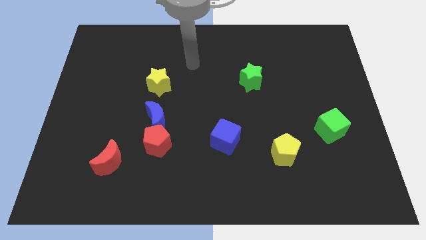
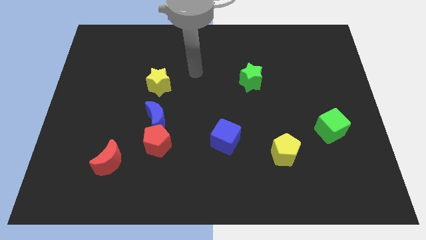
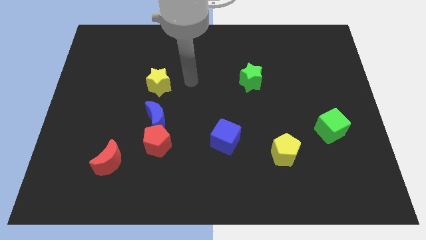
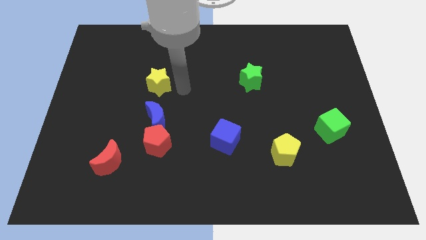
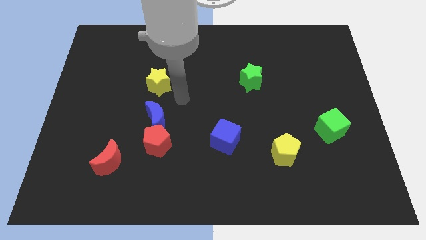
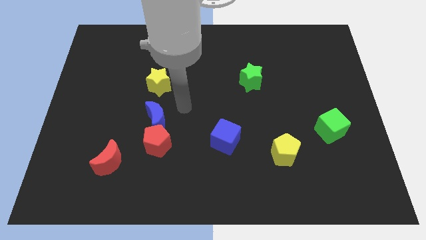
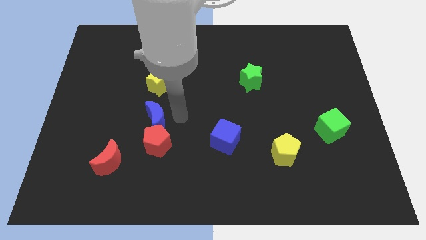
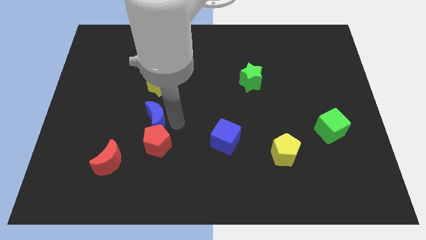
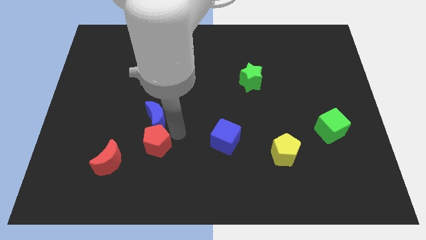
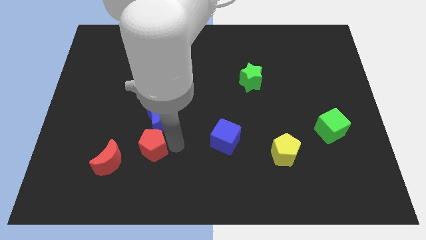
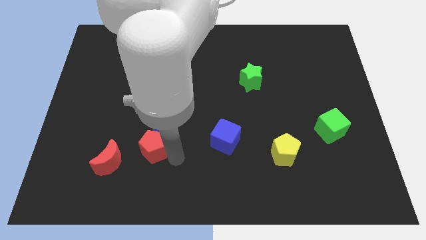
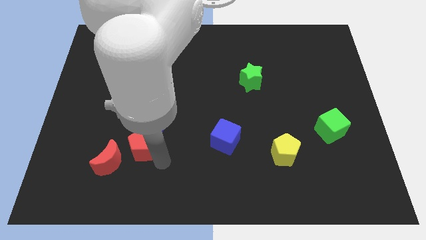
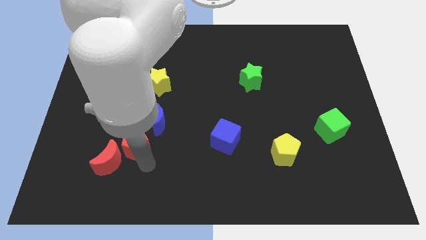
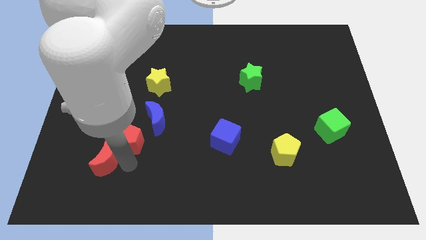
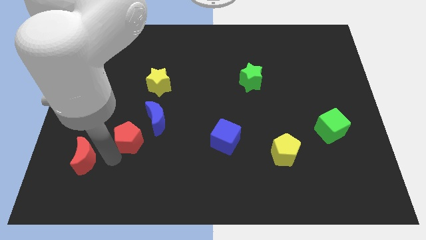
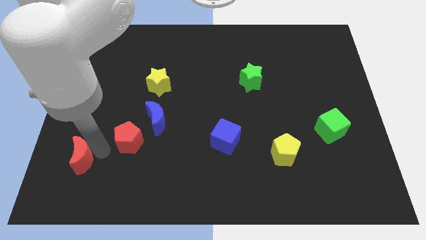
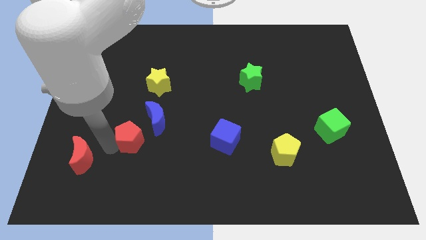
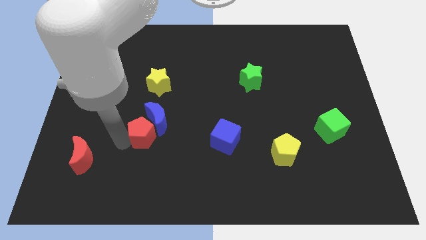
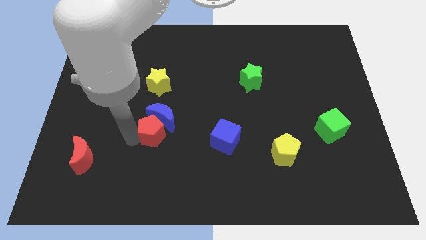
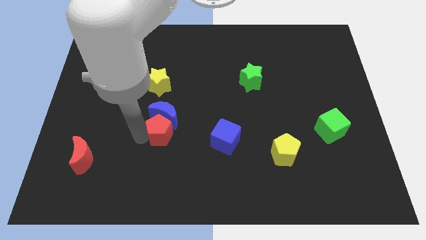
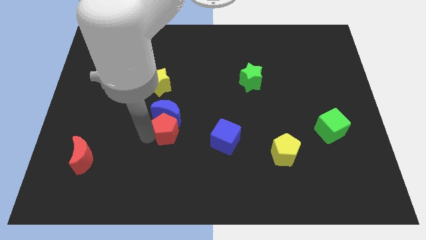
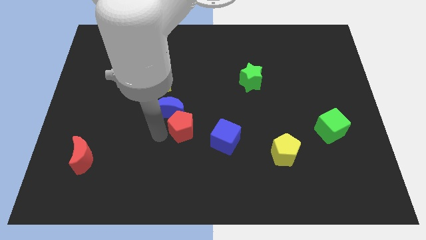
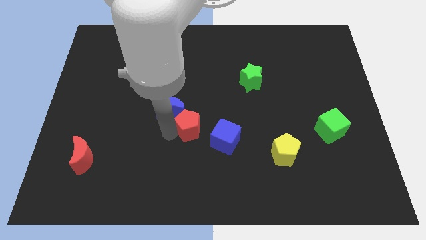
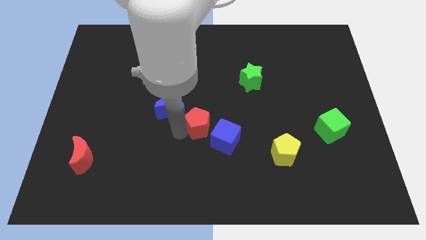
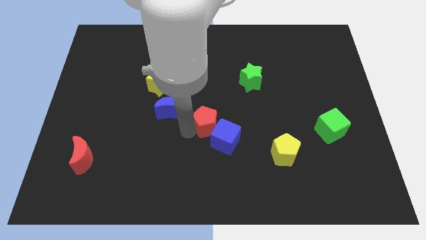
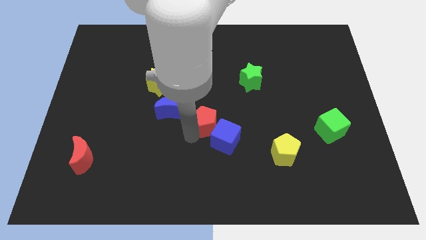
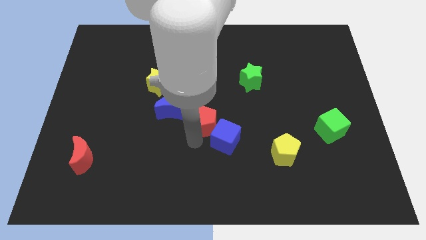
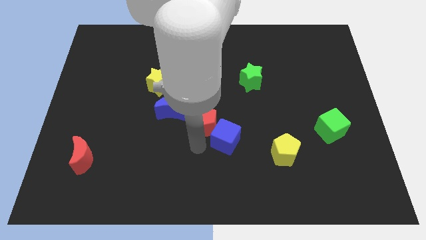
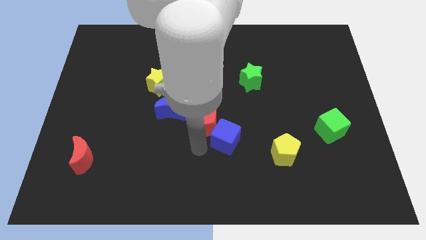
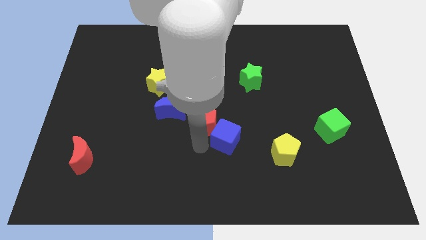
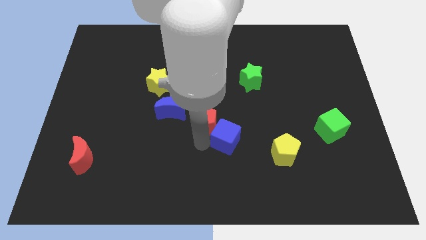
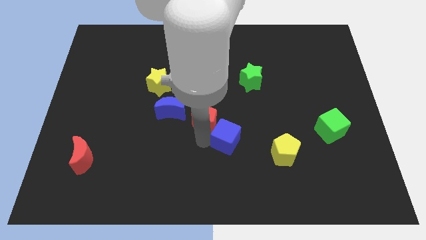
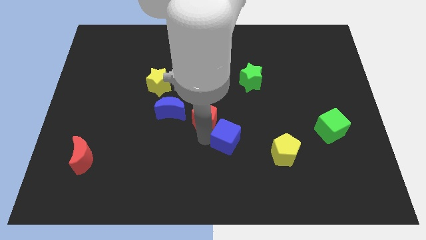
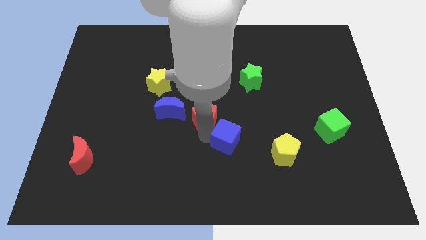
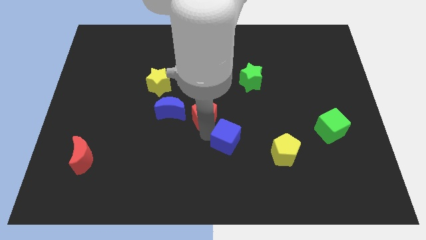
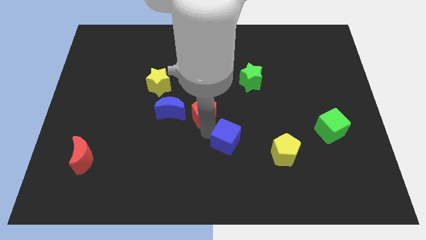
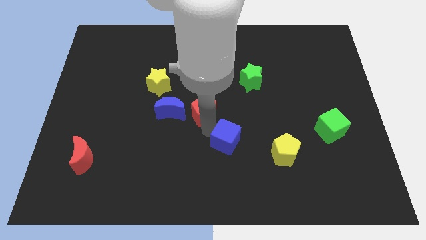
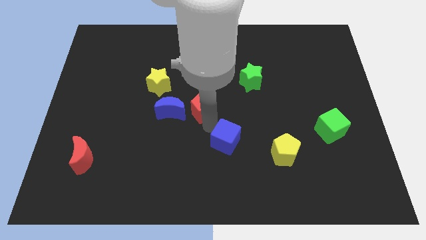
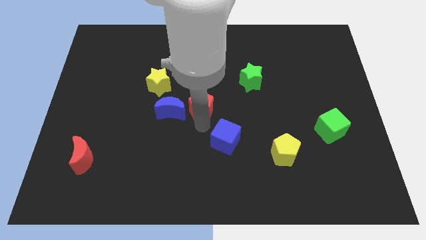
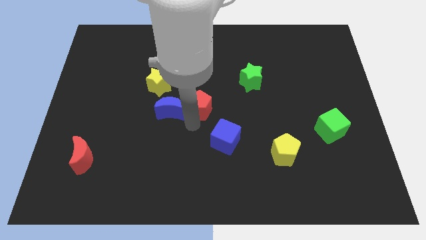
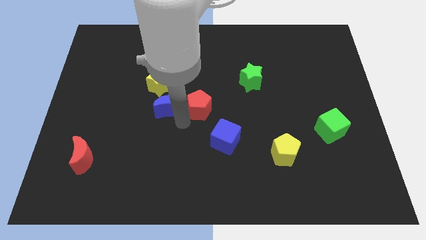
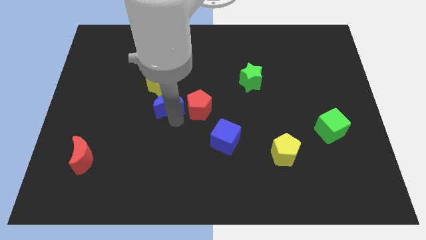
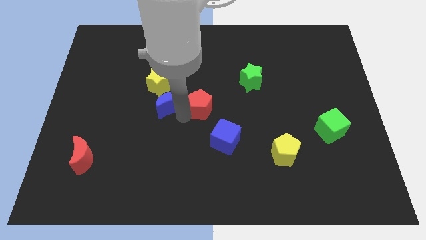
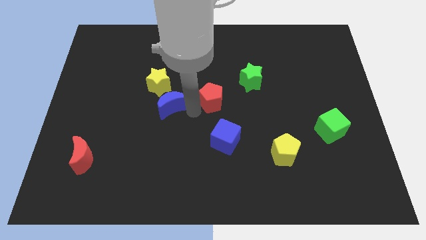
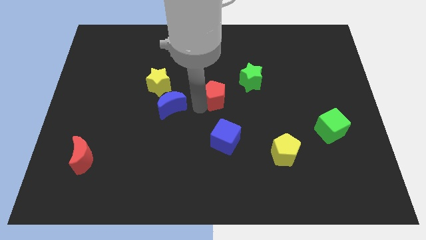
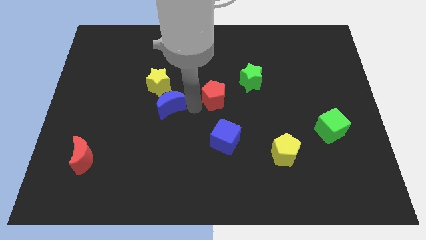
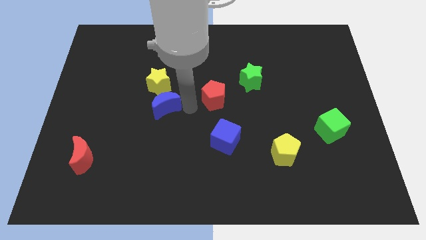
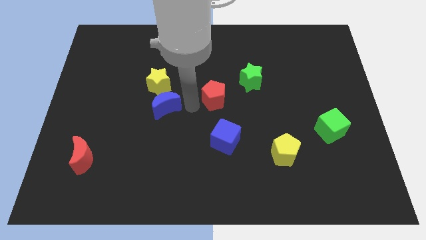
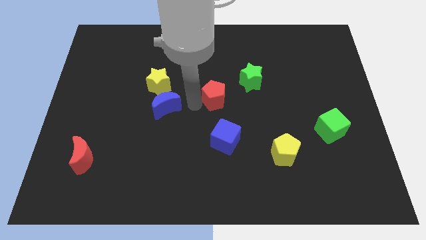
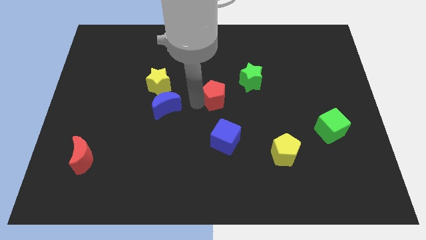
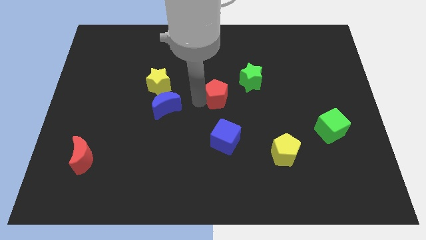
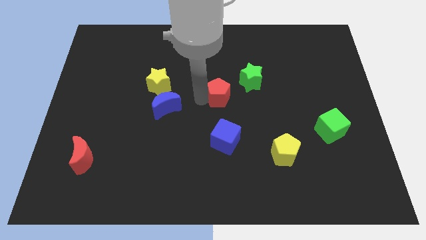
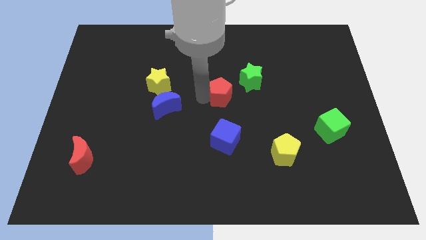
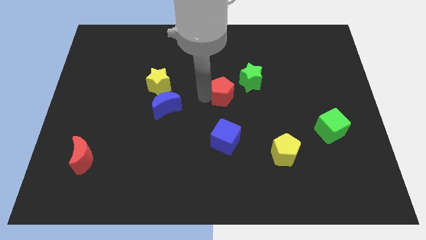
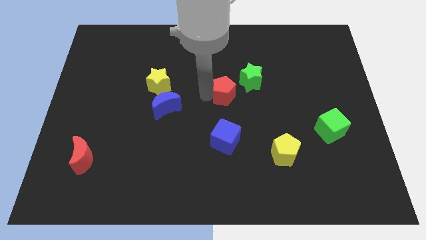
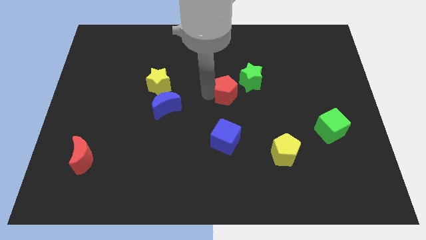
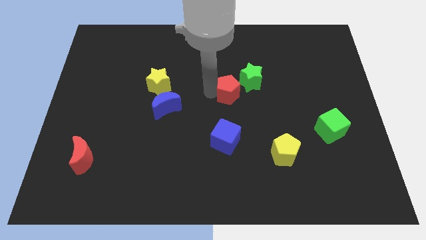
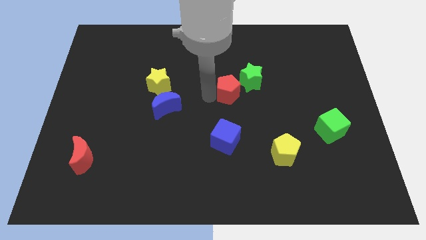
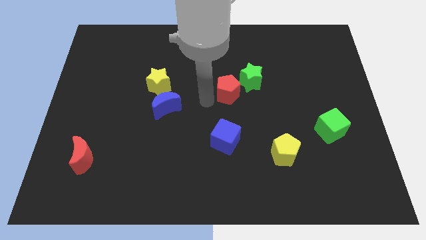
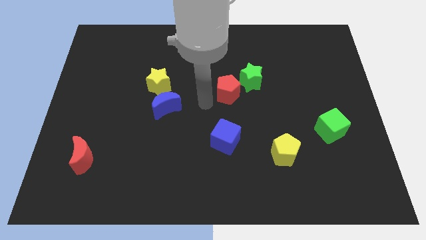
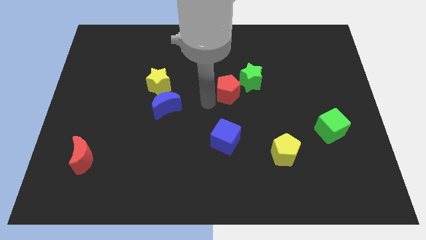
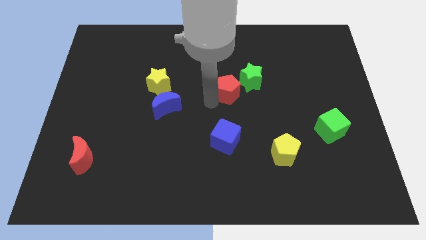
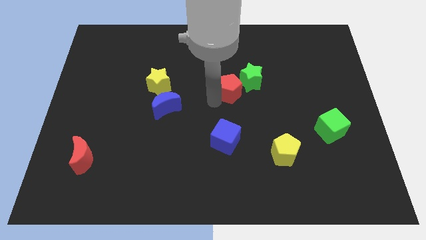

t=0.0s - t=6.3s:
put the red pentagon close to the green star

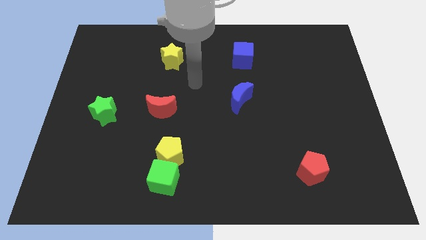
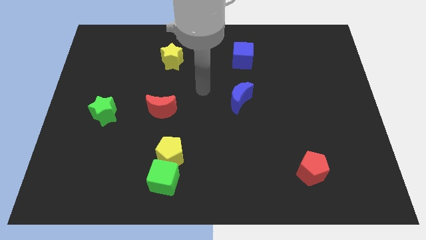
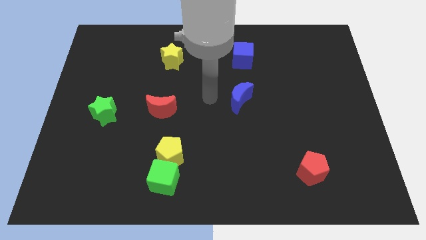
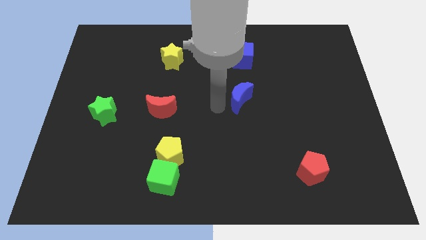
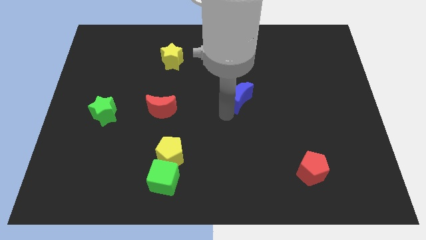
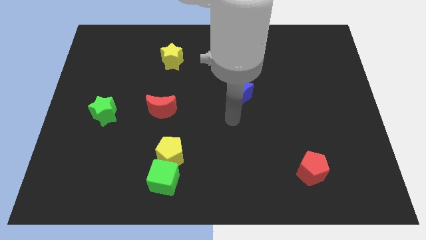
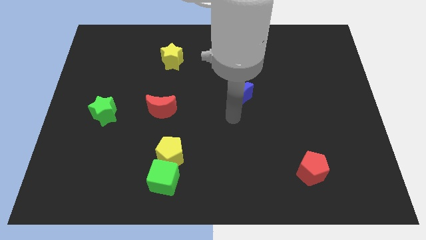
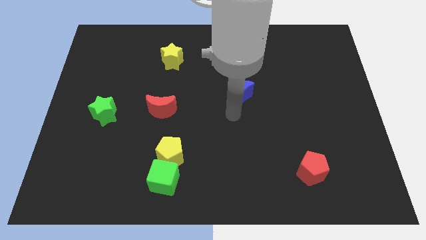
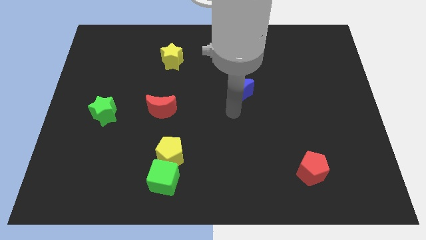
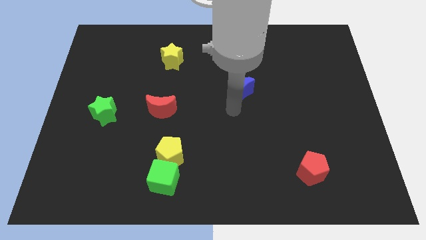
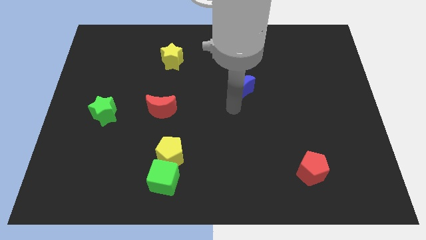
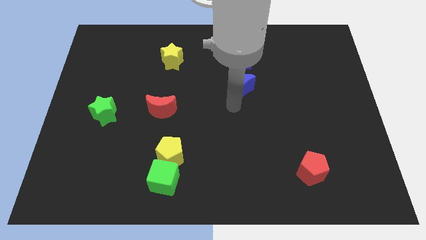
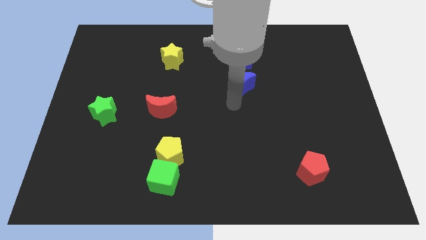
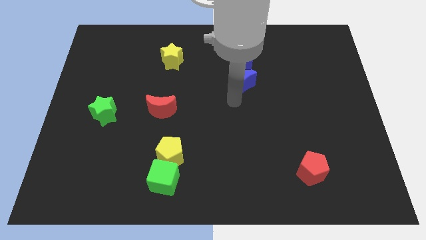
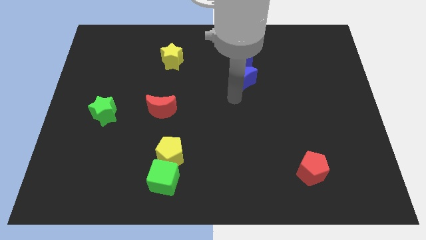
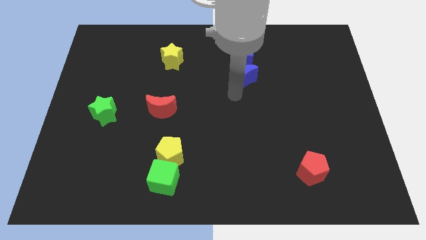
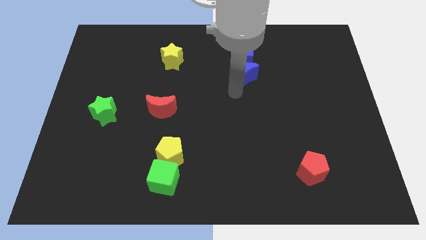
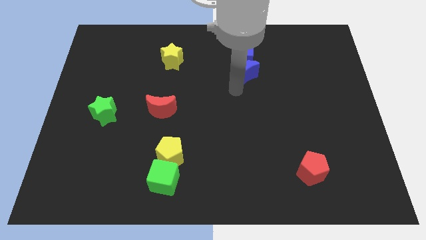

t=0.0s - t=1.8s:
slide the blue moon next to the blue cube
